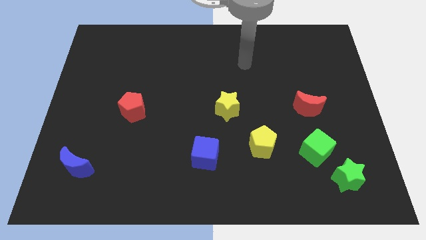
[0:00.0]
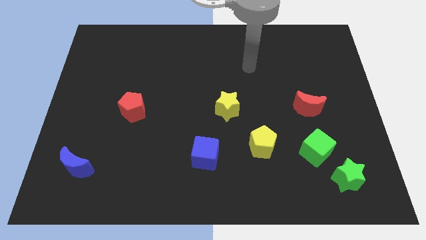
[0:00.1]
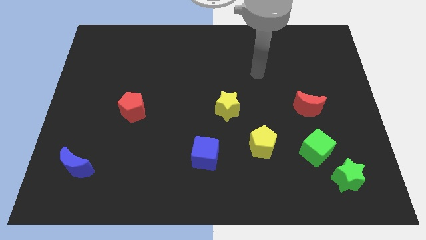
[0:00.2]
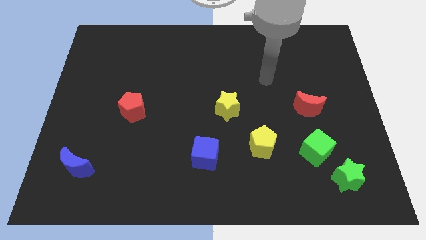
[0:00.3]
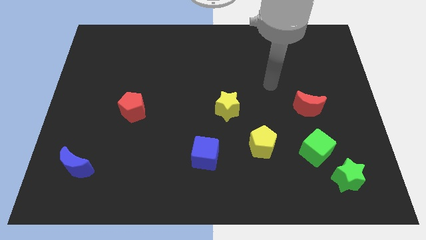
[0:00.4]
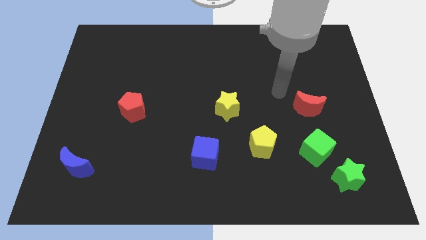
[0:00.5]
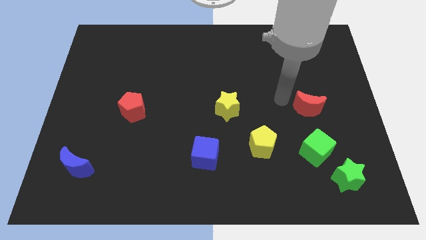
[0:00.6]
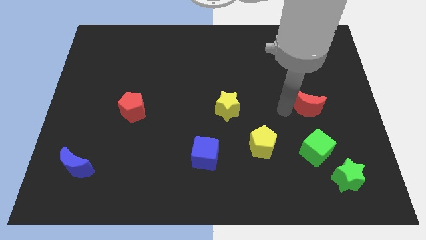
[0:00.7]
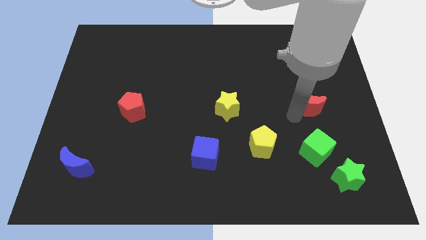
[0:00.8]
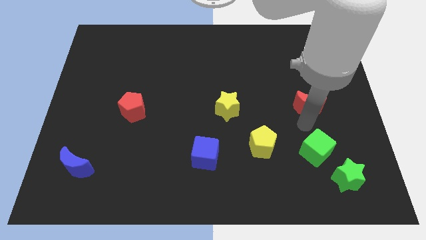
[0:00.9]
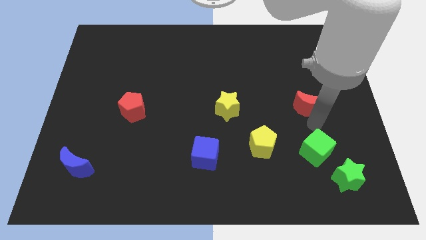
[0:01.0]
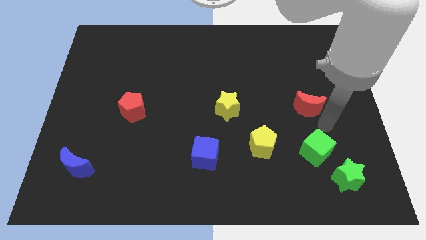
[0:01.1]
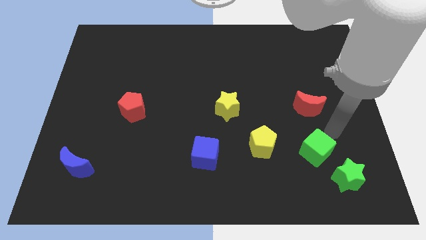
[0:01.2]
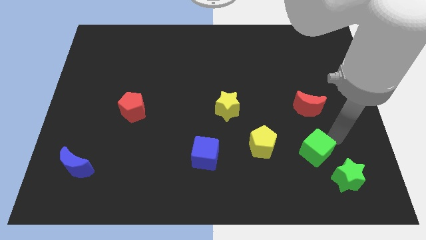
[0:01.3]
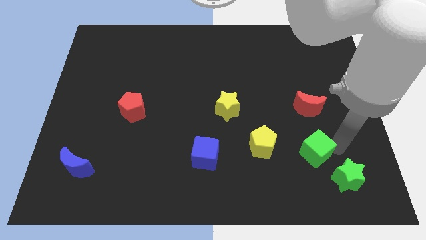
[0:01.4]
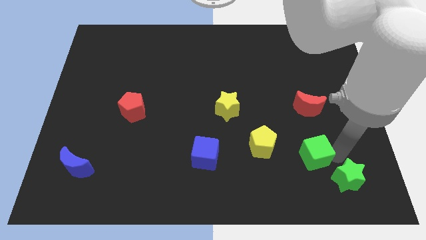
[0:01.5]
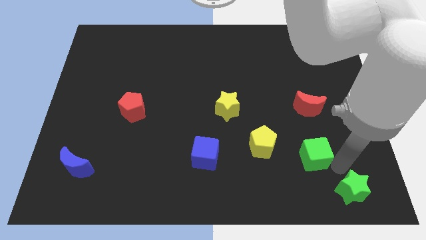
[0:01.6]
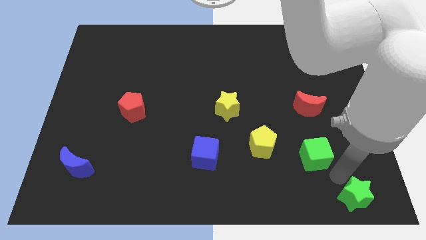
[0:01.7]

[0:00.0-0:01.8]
move the green cube away from the green star

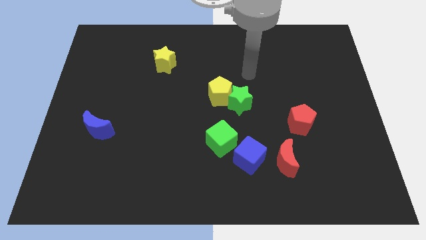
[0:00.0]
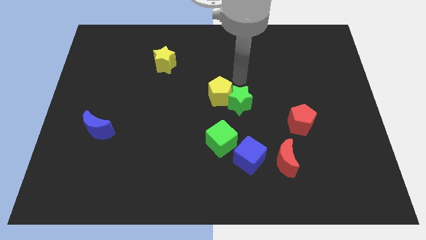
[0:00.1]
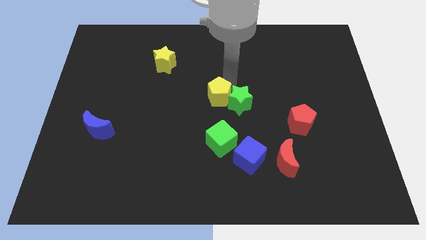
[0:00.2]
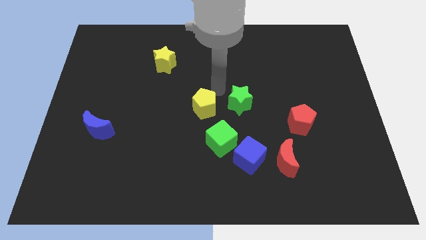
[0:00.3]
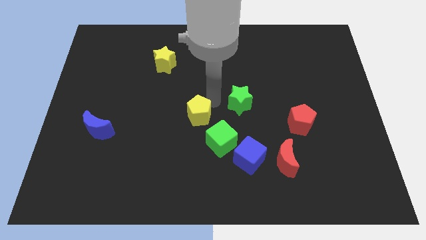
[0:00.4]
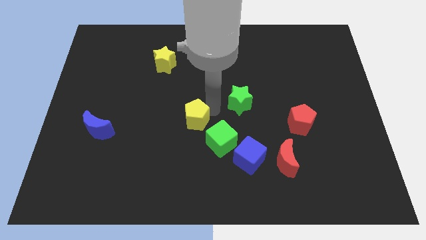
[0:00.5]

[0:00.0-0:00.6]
pull the green star apart from the yellow pentagon

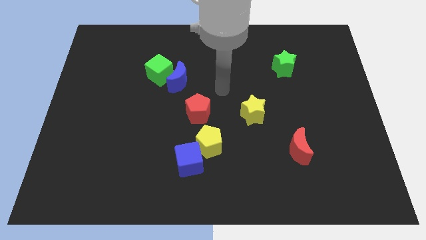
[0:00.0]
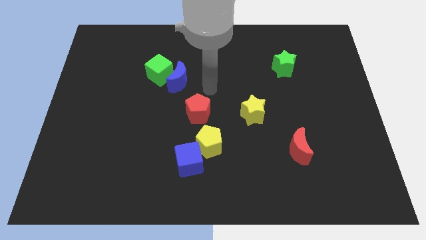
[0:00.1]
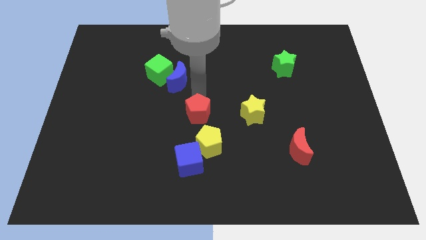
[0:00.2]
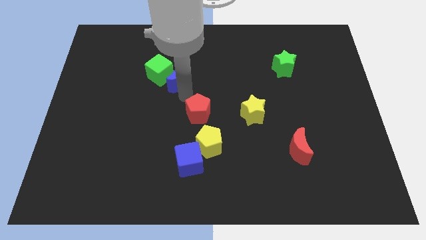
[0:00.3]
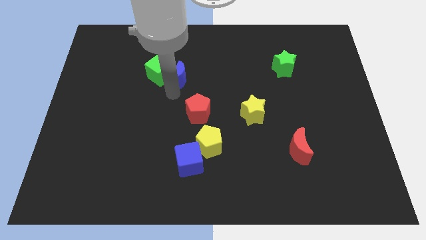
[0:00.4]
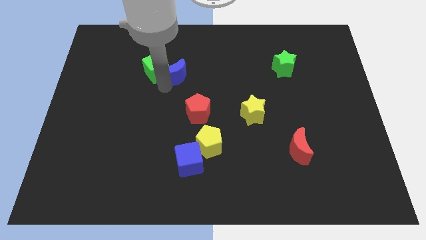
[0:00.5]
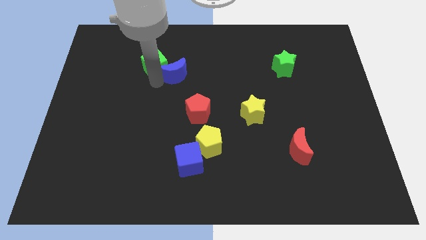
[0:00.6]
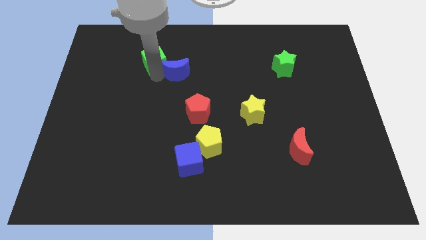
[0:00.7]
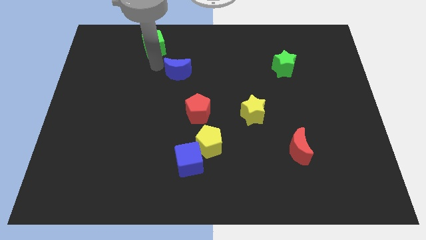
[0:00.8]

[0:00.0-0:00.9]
pull the blue moon apart from the green cube

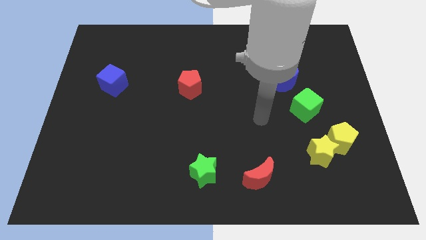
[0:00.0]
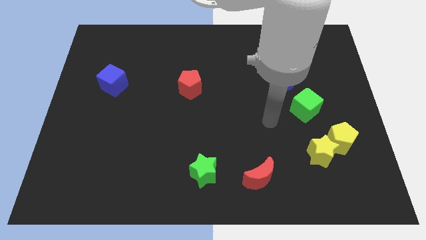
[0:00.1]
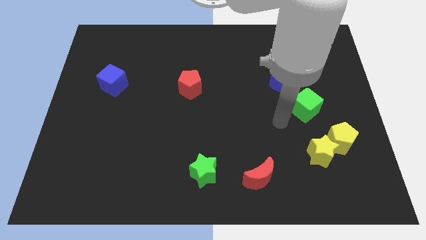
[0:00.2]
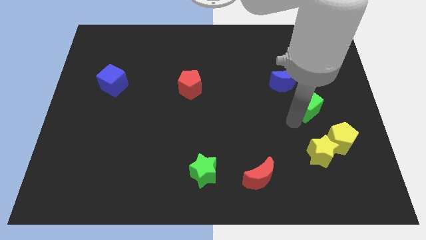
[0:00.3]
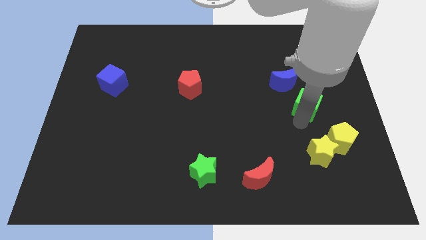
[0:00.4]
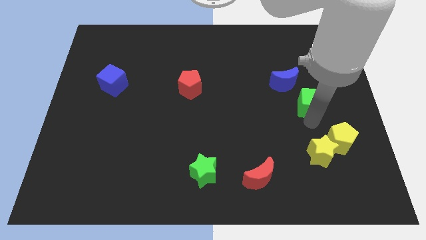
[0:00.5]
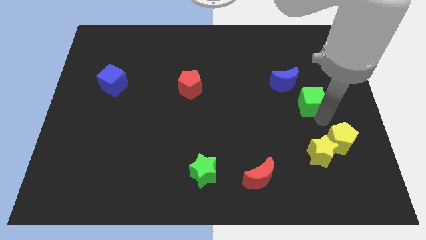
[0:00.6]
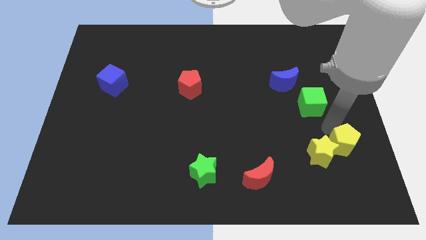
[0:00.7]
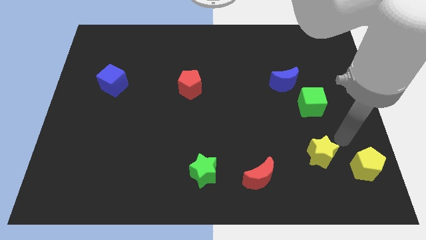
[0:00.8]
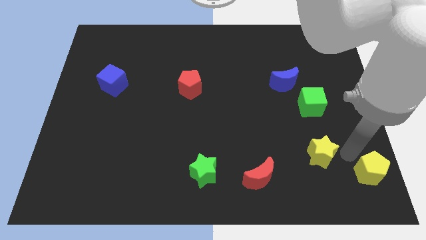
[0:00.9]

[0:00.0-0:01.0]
move the yellow star away from the yellow pentagon

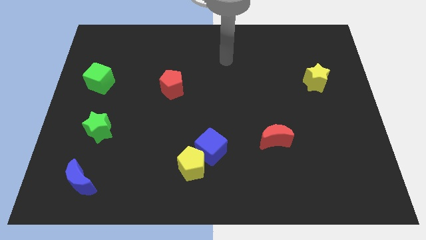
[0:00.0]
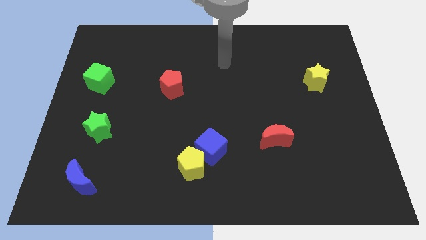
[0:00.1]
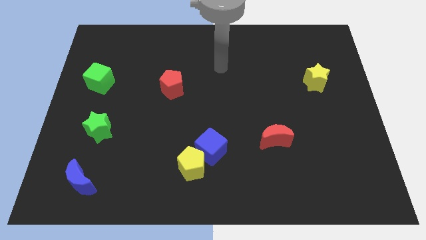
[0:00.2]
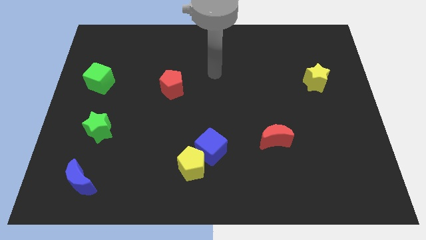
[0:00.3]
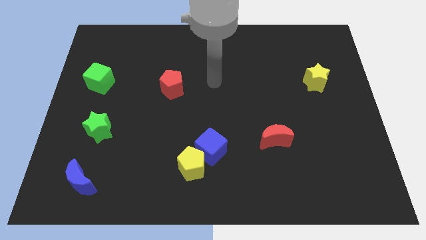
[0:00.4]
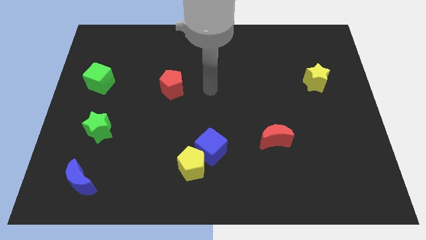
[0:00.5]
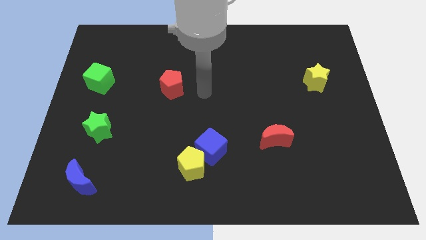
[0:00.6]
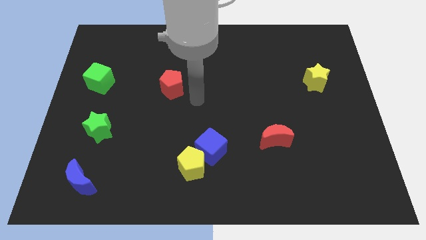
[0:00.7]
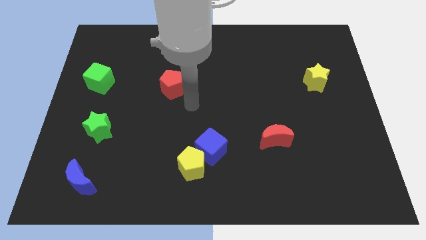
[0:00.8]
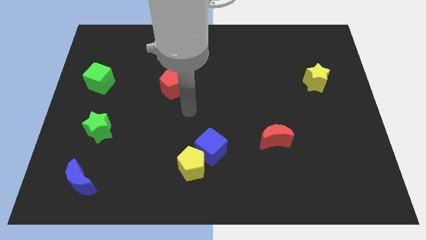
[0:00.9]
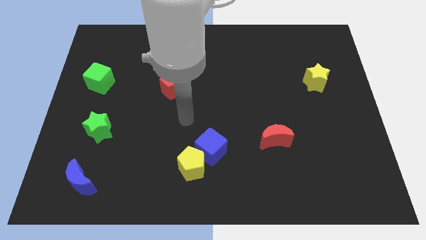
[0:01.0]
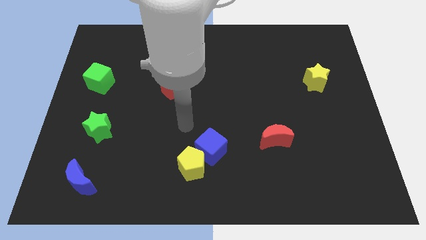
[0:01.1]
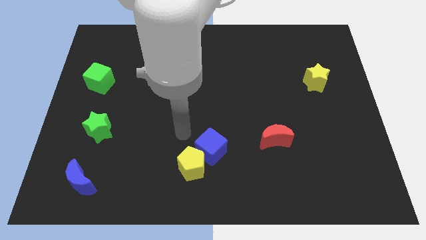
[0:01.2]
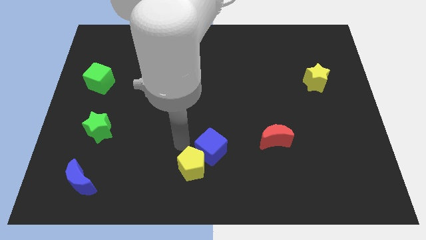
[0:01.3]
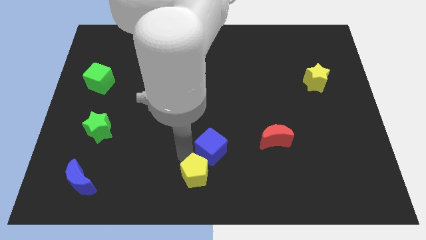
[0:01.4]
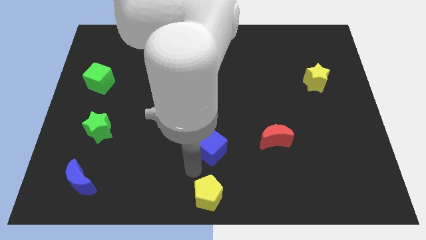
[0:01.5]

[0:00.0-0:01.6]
pull the blue cube apart from the yellow pentagon

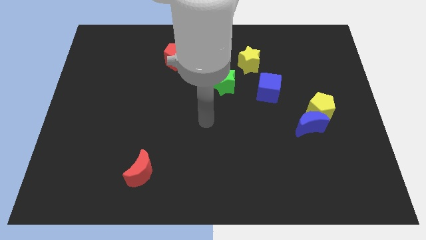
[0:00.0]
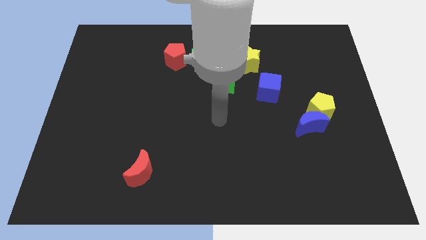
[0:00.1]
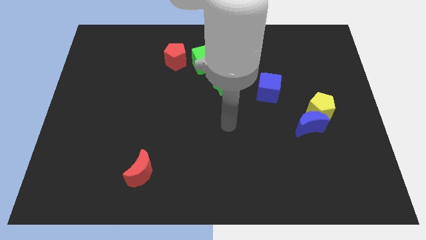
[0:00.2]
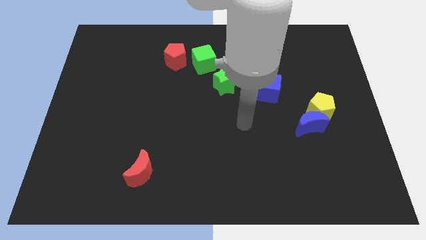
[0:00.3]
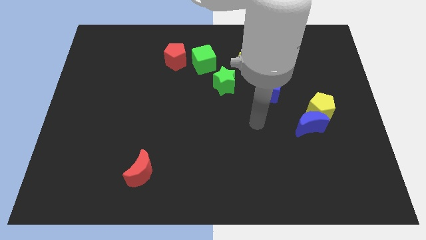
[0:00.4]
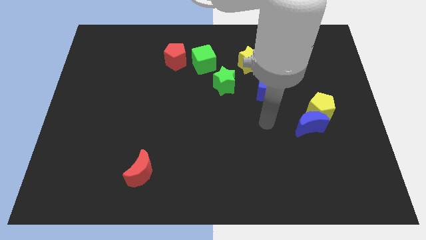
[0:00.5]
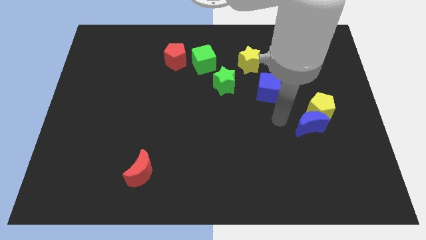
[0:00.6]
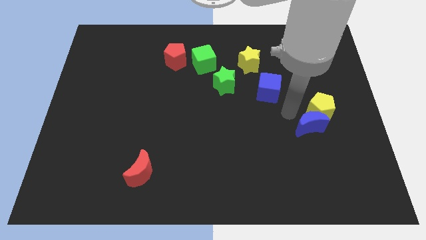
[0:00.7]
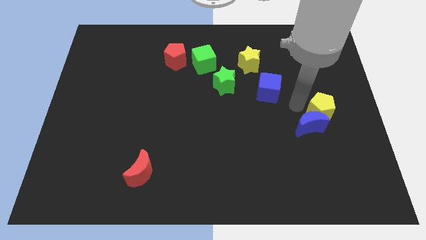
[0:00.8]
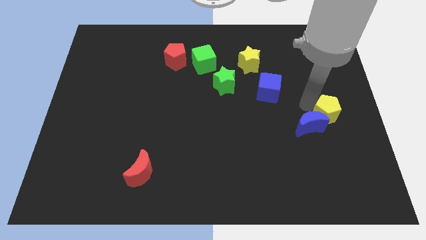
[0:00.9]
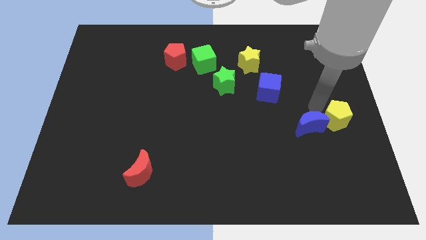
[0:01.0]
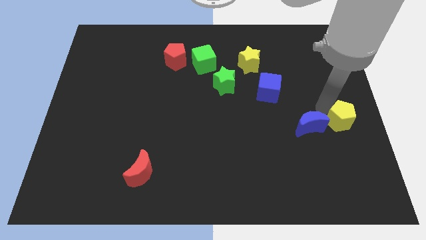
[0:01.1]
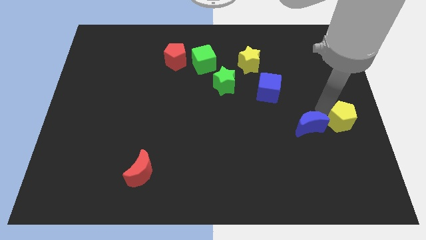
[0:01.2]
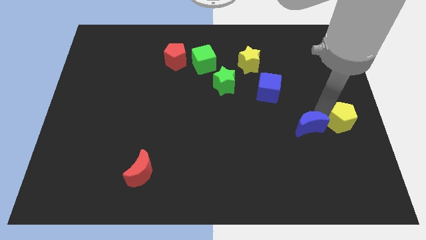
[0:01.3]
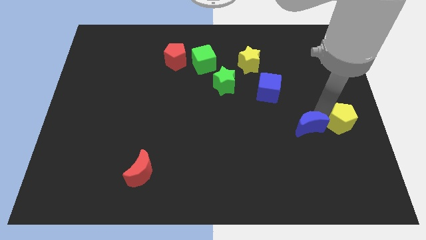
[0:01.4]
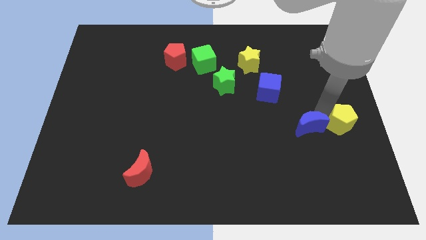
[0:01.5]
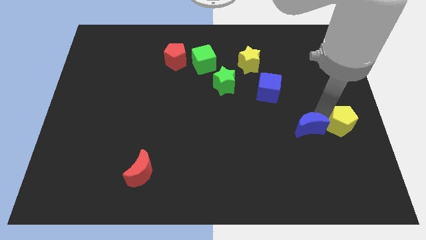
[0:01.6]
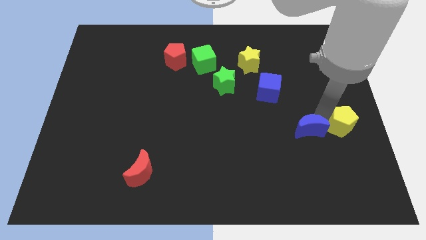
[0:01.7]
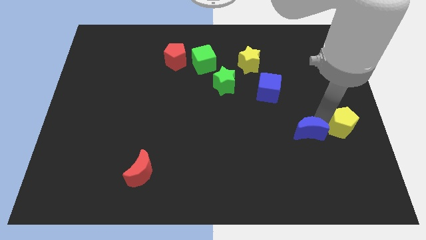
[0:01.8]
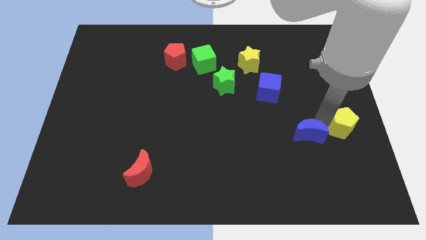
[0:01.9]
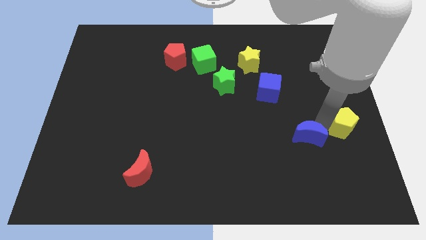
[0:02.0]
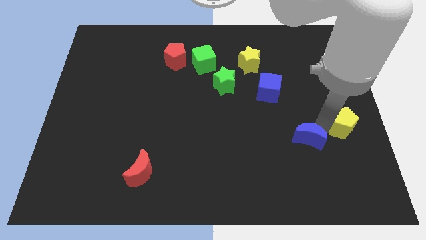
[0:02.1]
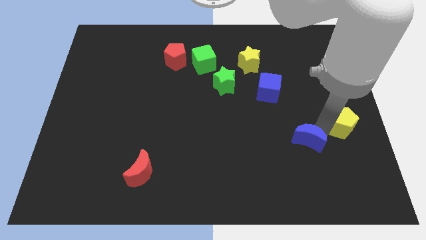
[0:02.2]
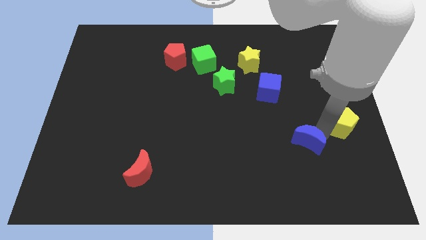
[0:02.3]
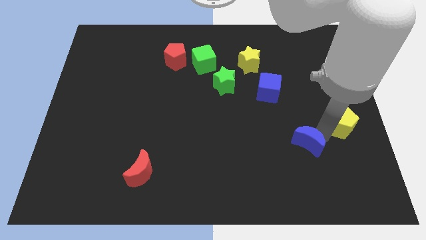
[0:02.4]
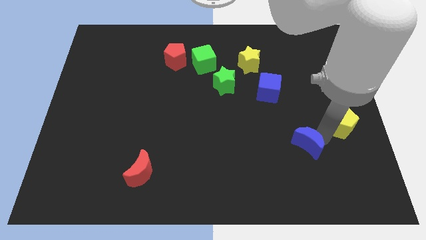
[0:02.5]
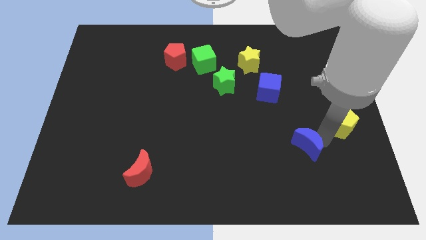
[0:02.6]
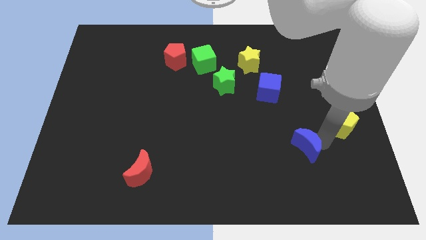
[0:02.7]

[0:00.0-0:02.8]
separate the blue moon from the yellow pentagon

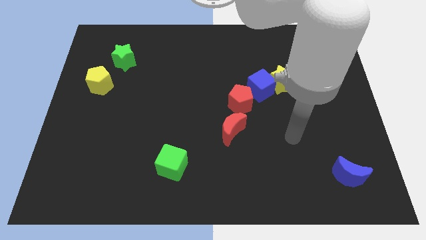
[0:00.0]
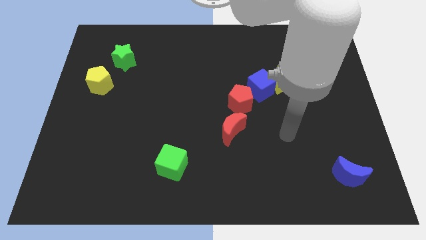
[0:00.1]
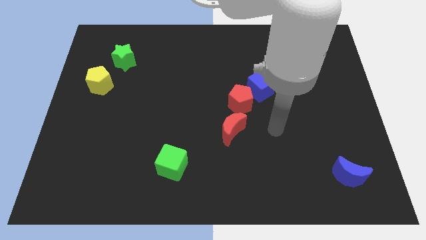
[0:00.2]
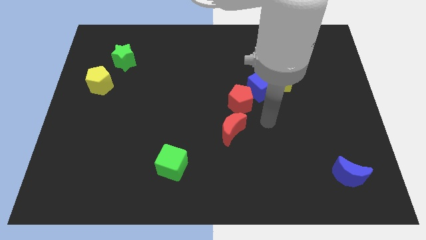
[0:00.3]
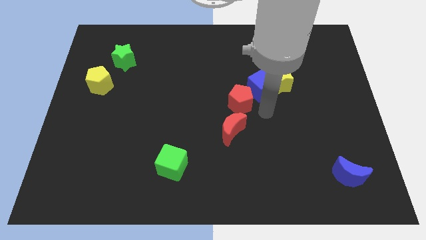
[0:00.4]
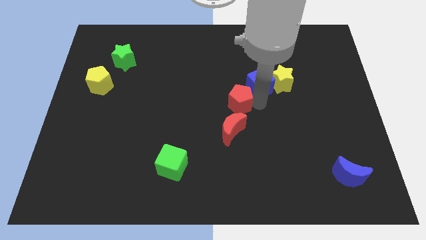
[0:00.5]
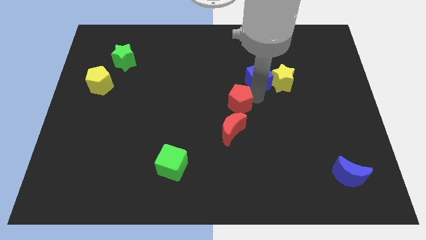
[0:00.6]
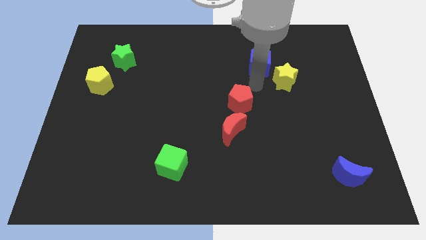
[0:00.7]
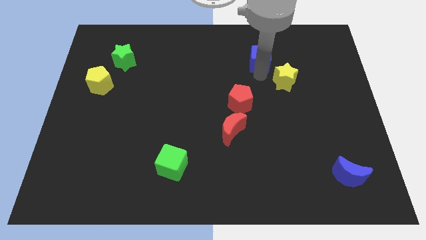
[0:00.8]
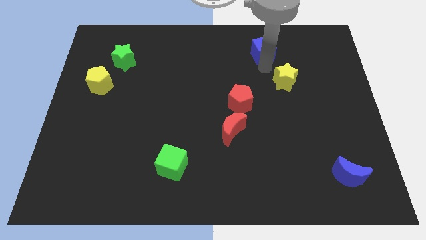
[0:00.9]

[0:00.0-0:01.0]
pull the yellow star apart from the blue cube
